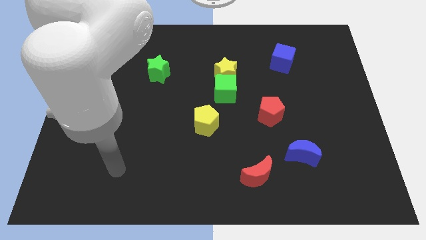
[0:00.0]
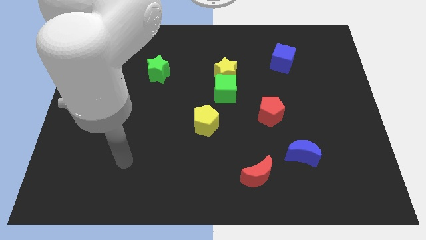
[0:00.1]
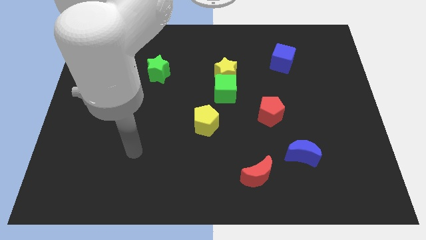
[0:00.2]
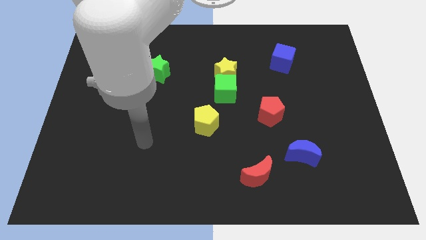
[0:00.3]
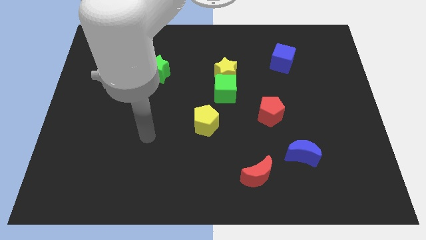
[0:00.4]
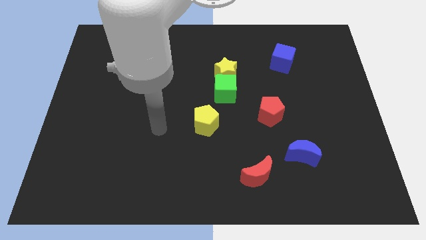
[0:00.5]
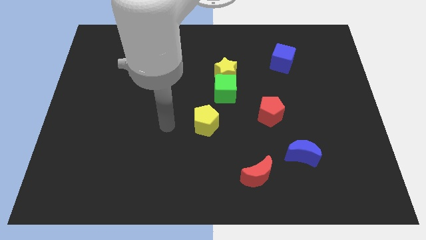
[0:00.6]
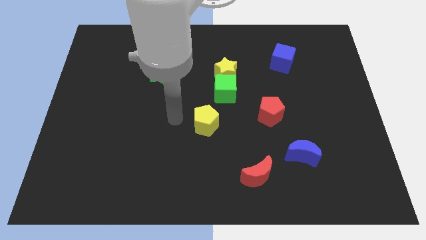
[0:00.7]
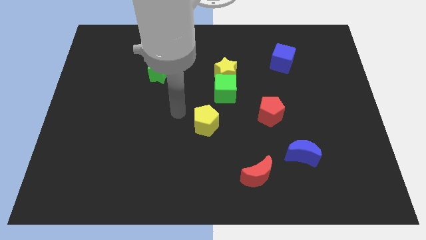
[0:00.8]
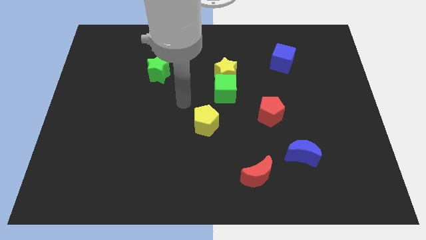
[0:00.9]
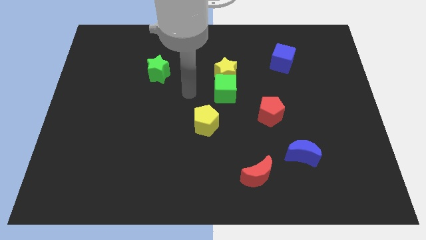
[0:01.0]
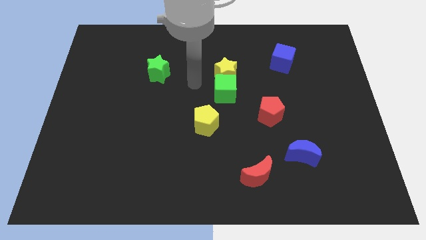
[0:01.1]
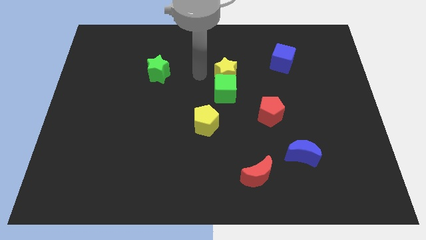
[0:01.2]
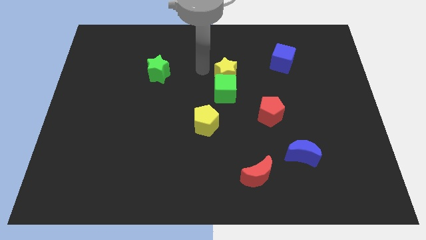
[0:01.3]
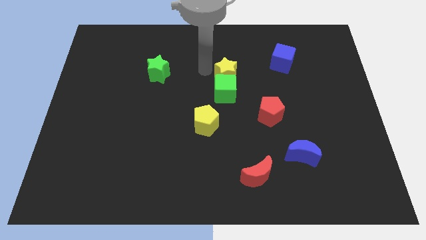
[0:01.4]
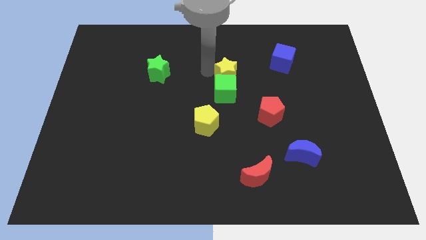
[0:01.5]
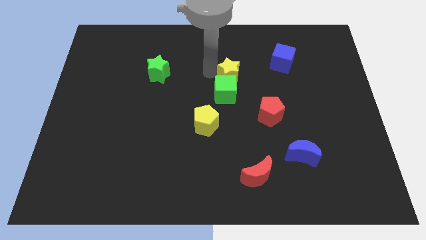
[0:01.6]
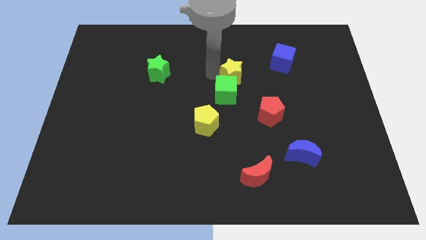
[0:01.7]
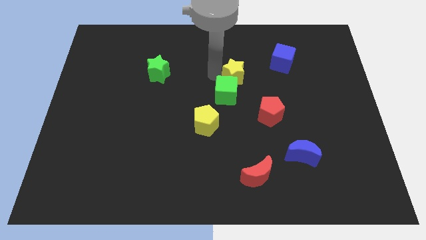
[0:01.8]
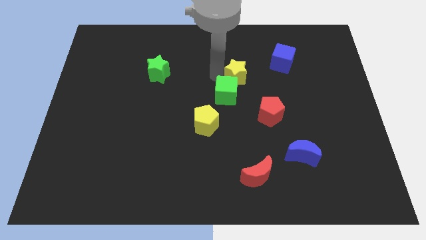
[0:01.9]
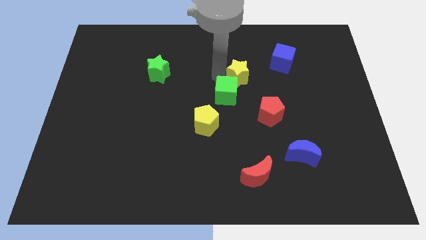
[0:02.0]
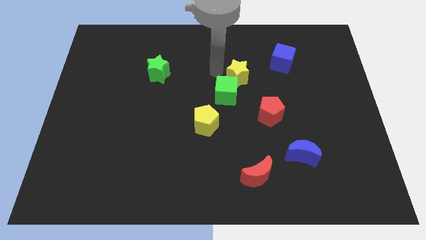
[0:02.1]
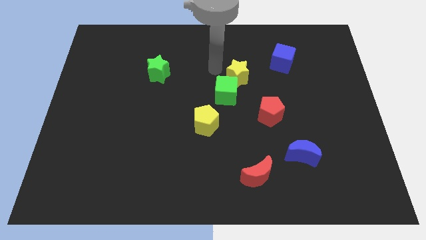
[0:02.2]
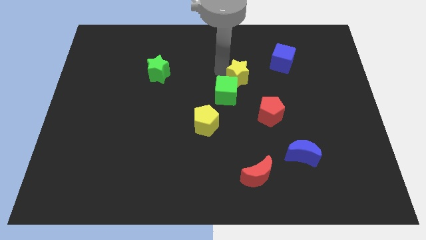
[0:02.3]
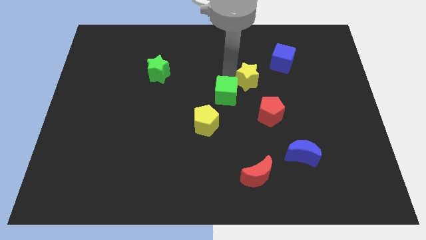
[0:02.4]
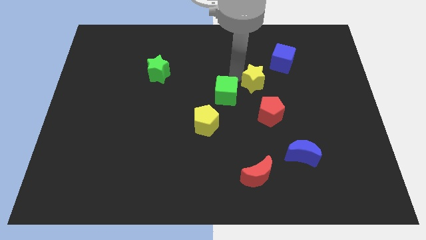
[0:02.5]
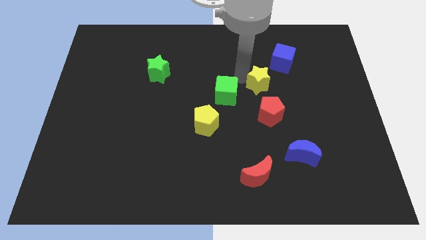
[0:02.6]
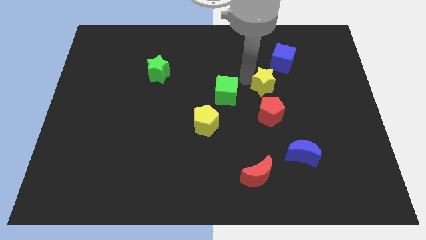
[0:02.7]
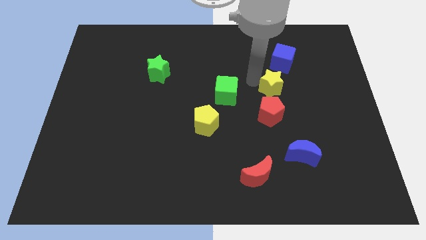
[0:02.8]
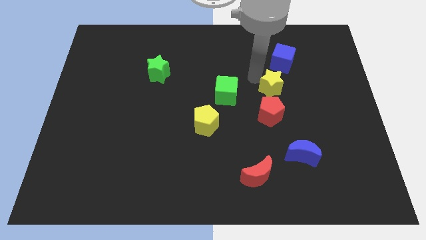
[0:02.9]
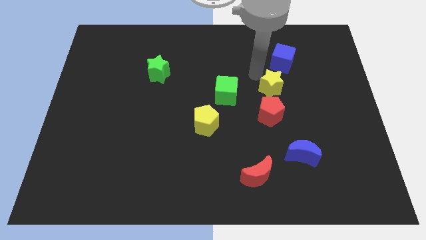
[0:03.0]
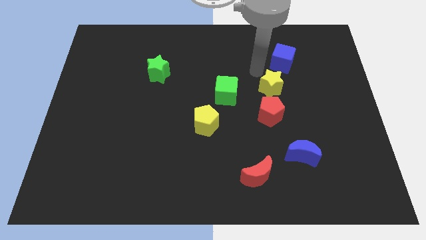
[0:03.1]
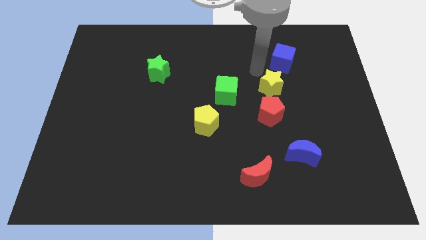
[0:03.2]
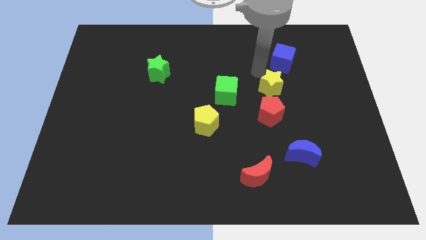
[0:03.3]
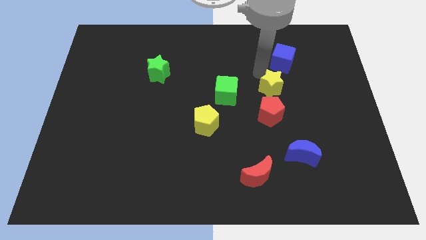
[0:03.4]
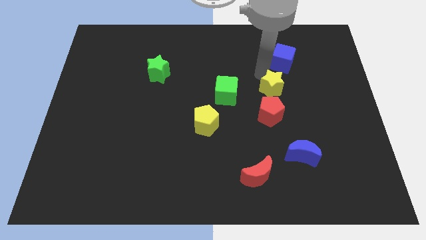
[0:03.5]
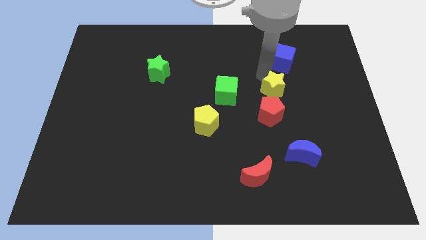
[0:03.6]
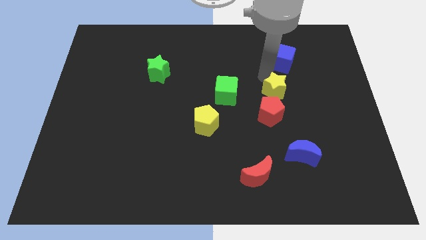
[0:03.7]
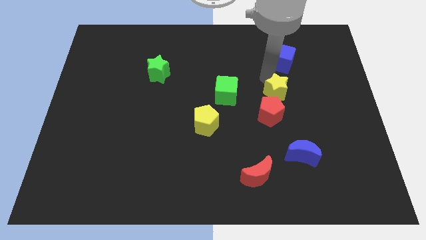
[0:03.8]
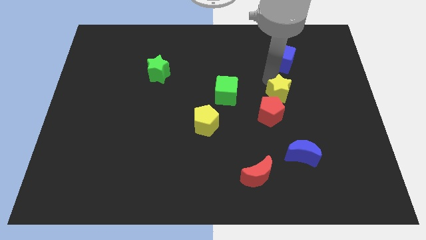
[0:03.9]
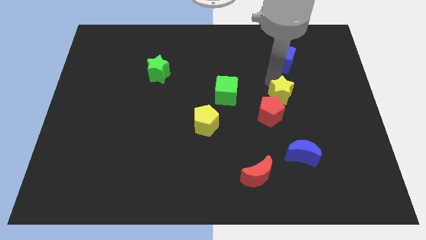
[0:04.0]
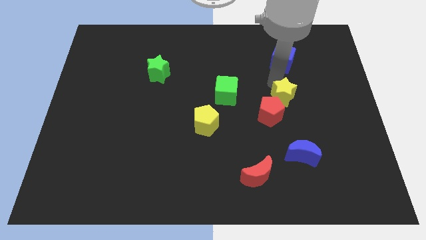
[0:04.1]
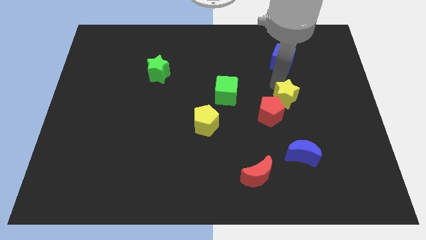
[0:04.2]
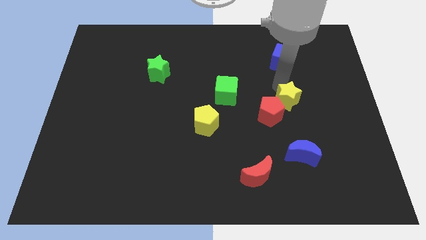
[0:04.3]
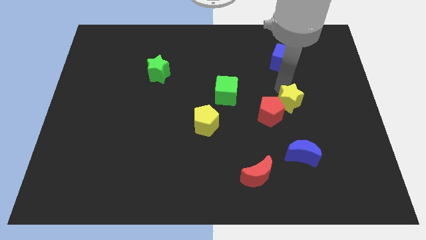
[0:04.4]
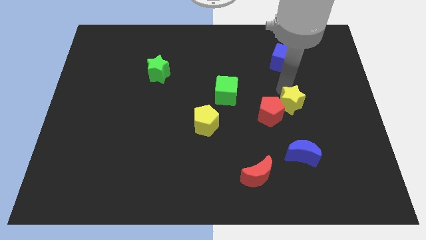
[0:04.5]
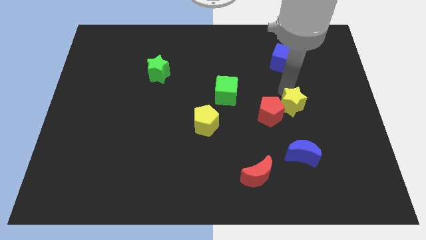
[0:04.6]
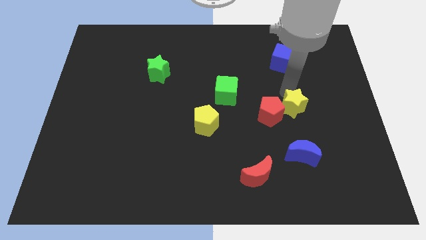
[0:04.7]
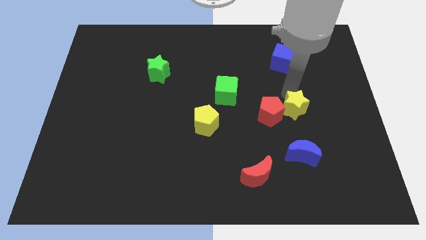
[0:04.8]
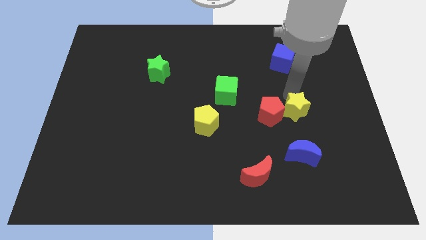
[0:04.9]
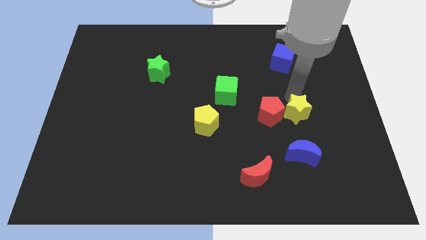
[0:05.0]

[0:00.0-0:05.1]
put the yellow star to the bottom right side of the red pentagon

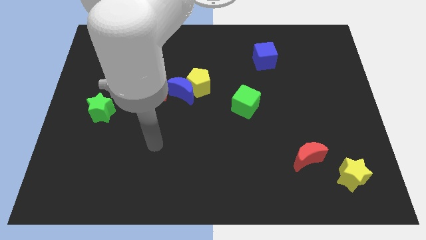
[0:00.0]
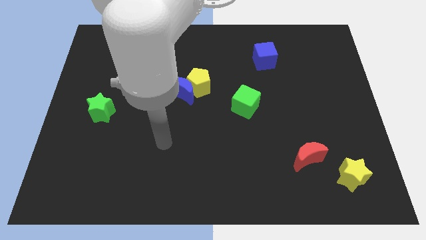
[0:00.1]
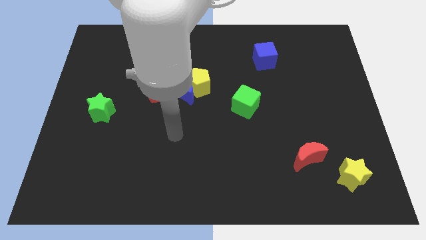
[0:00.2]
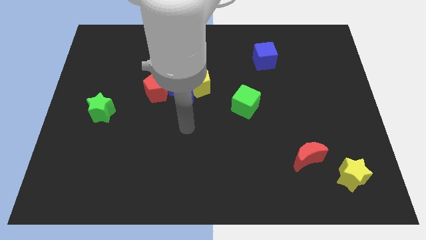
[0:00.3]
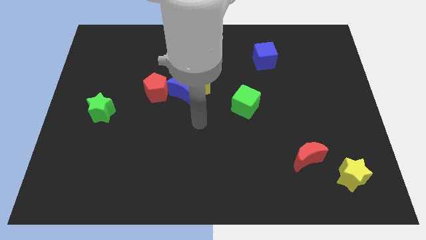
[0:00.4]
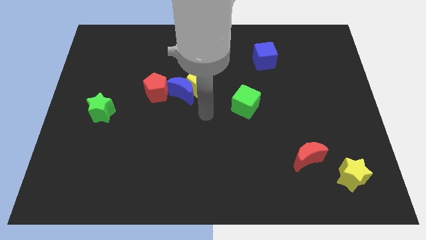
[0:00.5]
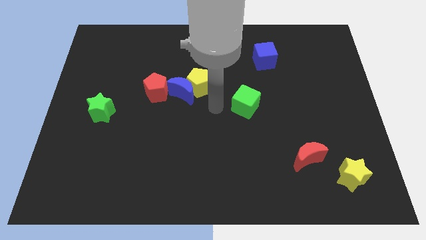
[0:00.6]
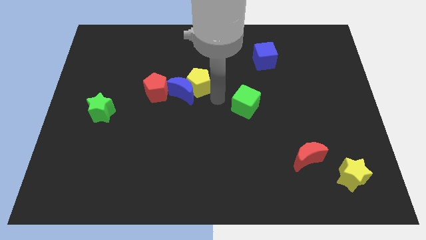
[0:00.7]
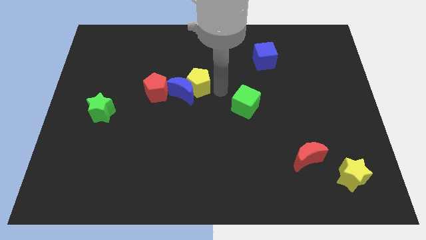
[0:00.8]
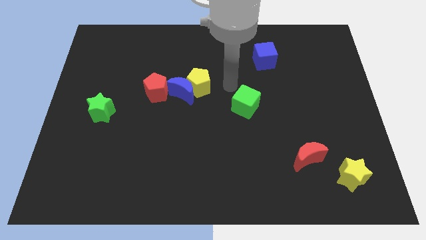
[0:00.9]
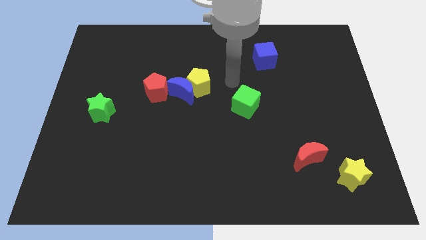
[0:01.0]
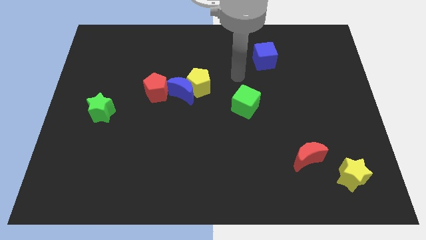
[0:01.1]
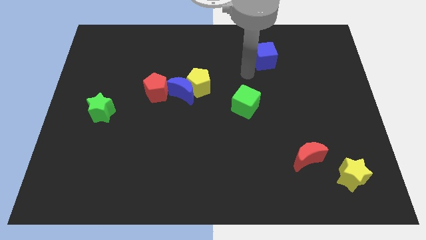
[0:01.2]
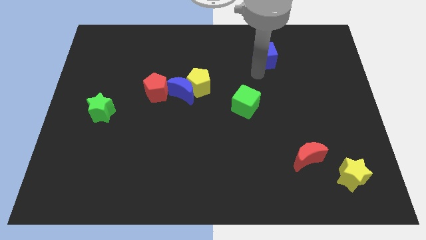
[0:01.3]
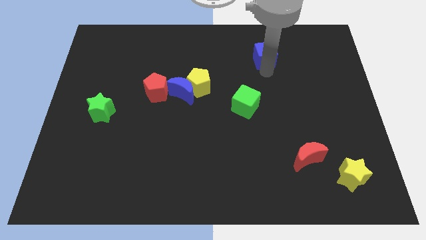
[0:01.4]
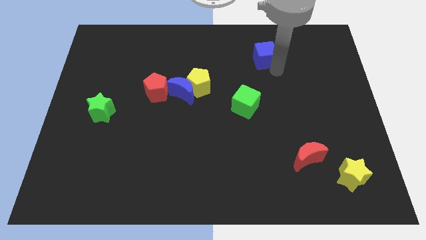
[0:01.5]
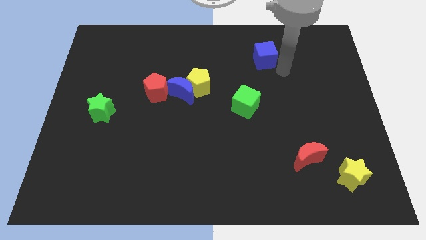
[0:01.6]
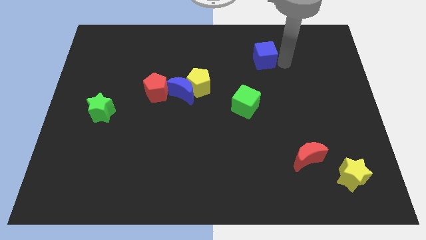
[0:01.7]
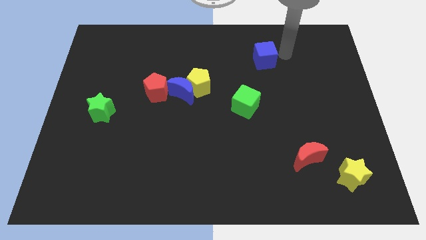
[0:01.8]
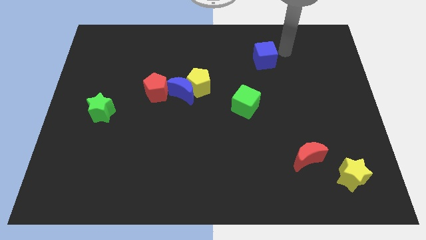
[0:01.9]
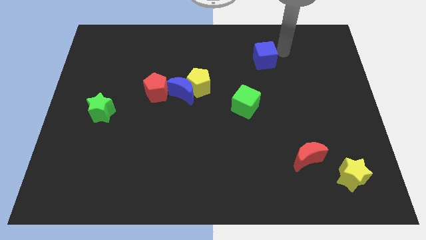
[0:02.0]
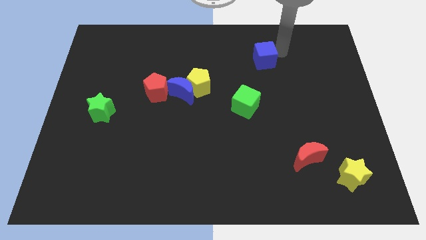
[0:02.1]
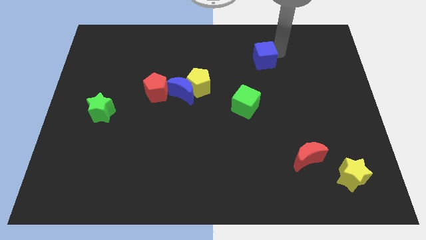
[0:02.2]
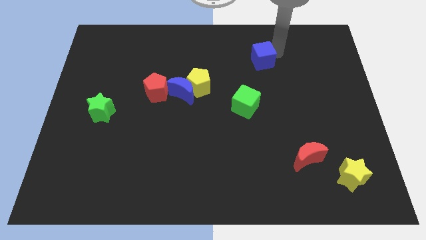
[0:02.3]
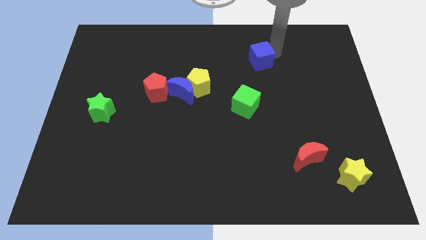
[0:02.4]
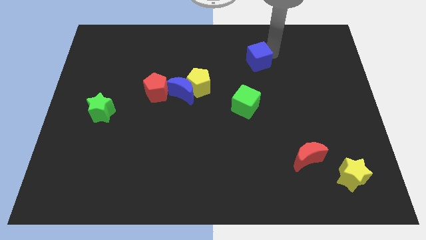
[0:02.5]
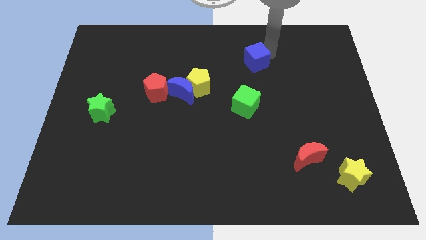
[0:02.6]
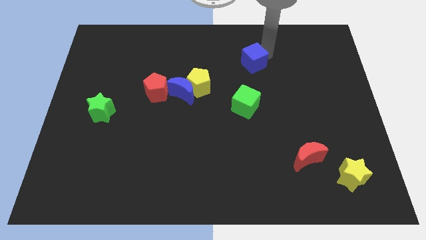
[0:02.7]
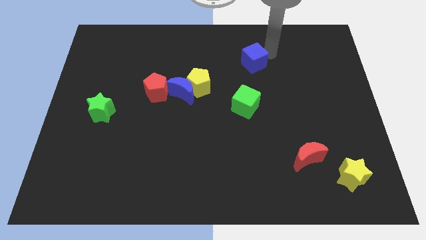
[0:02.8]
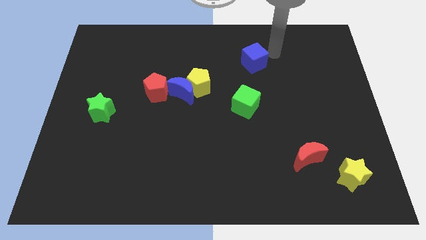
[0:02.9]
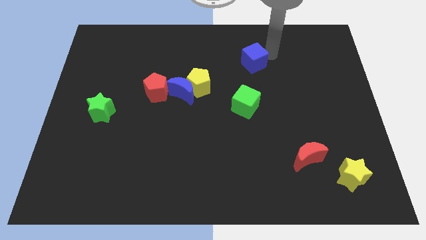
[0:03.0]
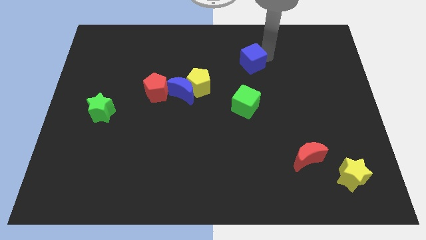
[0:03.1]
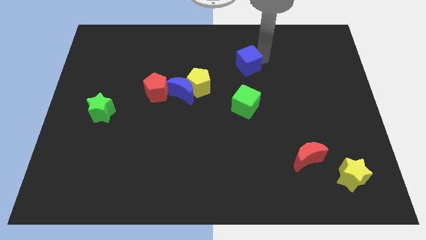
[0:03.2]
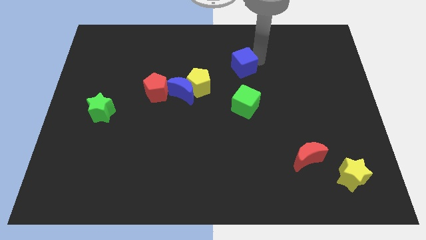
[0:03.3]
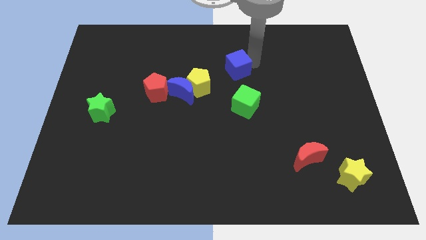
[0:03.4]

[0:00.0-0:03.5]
move the blue cube to the top right side of the yellow pentagon
